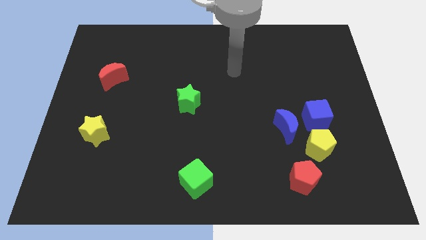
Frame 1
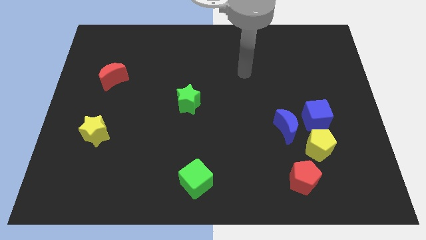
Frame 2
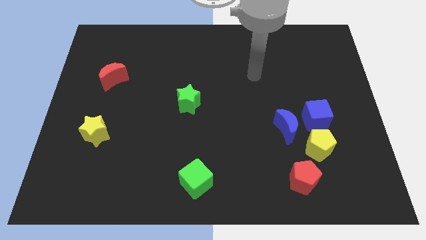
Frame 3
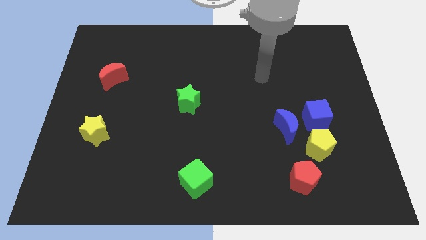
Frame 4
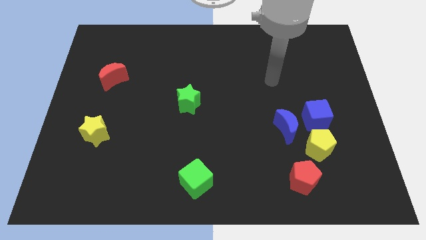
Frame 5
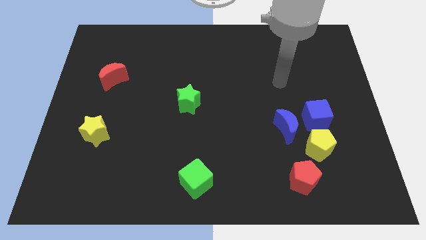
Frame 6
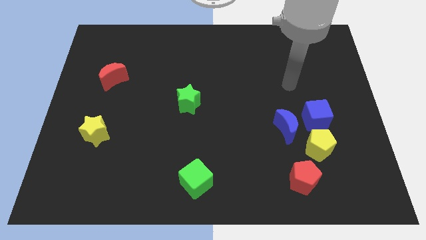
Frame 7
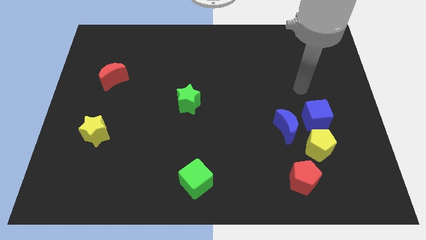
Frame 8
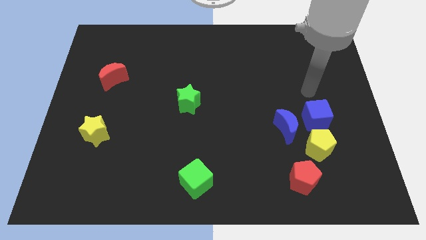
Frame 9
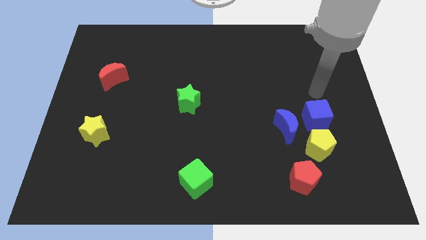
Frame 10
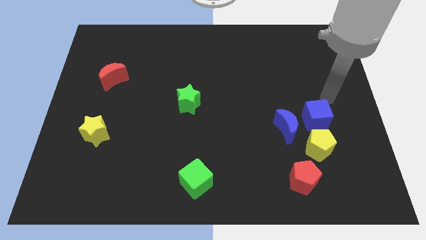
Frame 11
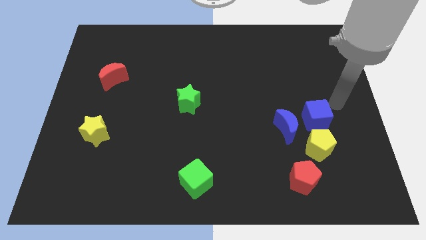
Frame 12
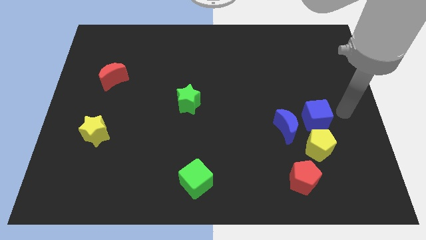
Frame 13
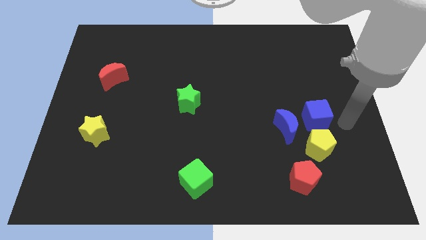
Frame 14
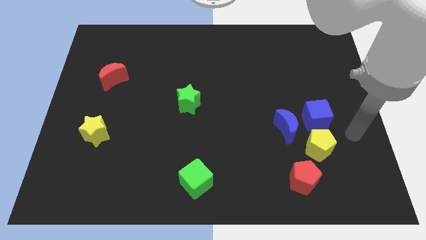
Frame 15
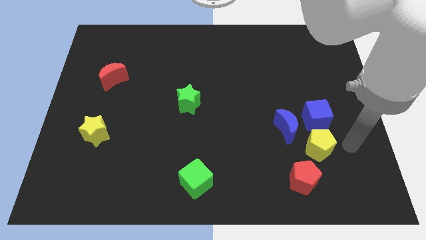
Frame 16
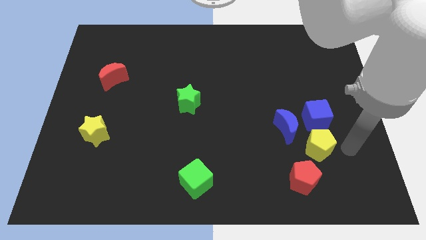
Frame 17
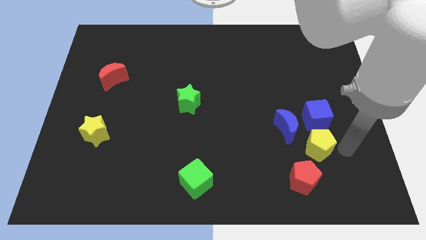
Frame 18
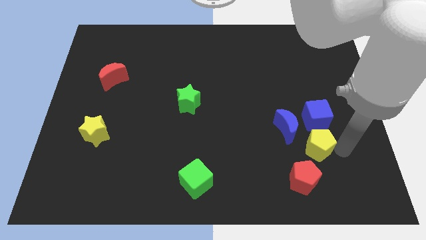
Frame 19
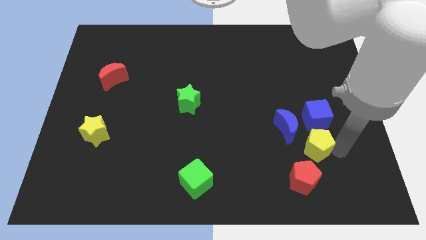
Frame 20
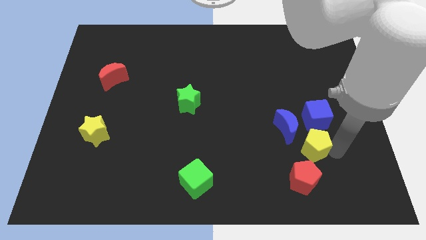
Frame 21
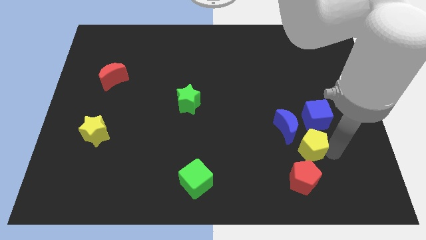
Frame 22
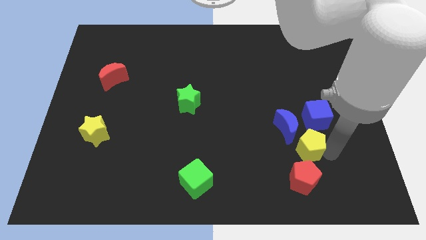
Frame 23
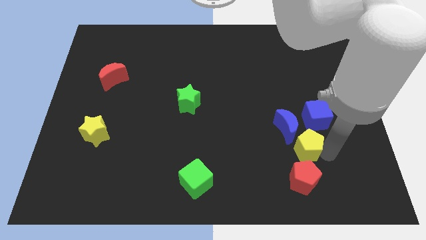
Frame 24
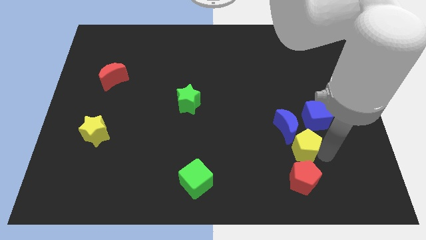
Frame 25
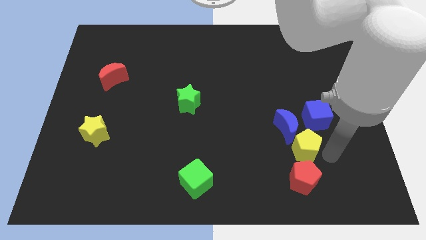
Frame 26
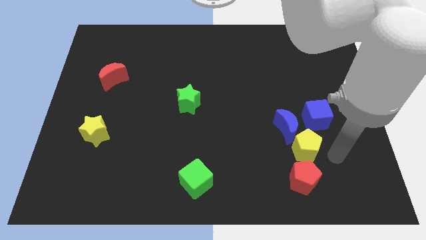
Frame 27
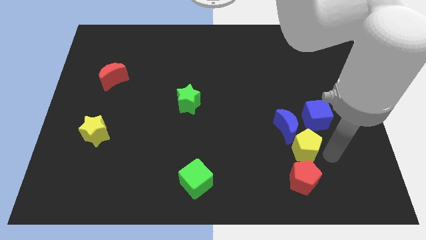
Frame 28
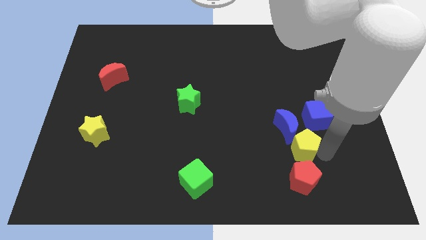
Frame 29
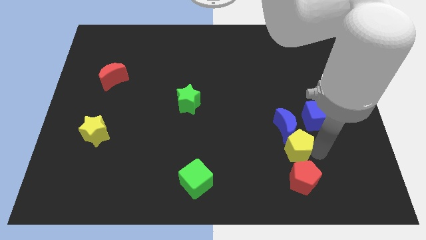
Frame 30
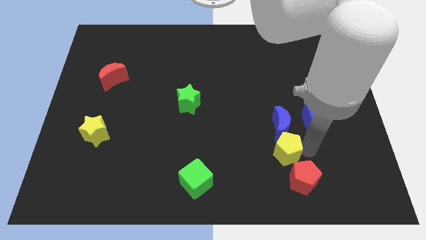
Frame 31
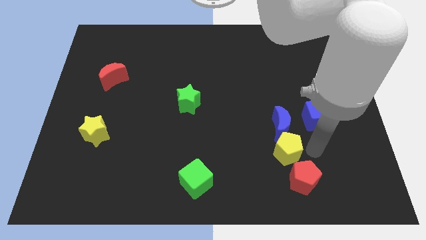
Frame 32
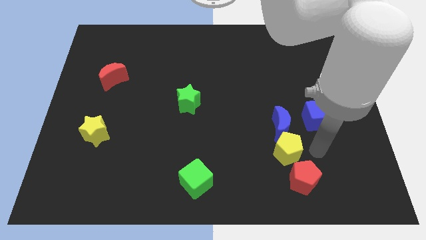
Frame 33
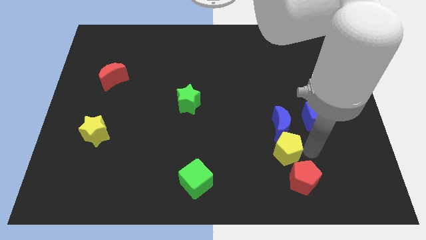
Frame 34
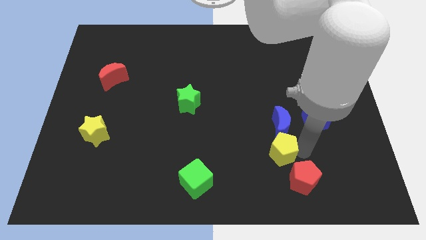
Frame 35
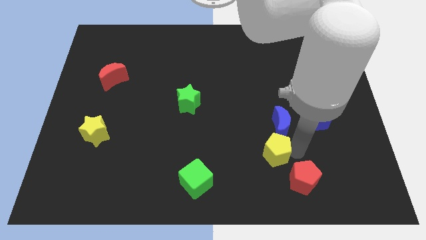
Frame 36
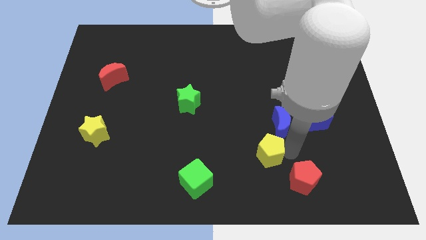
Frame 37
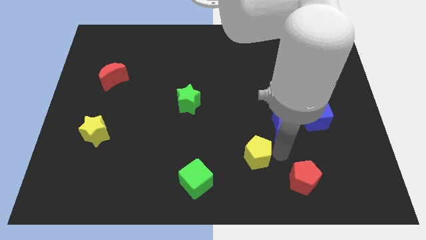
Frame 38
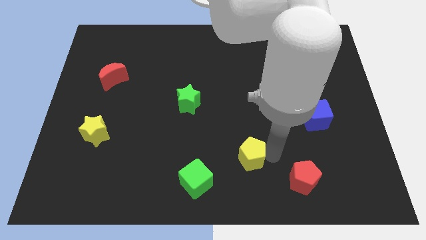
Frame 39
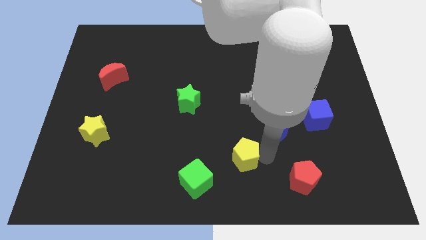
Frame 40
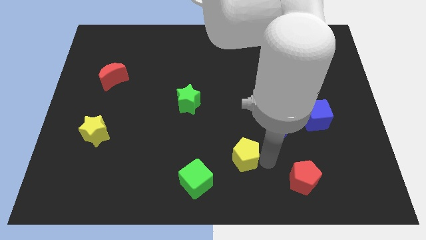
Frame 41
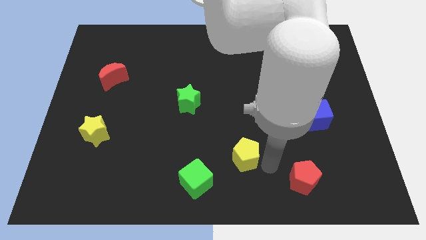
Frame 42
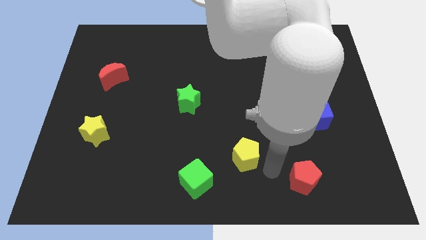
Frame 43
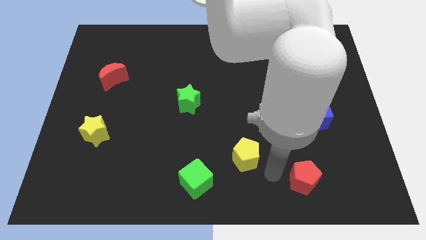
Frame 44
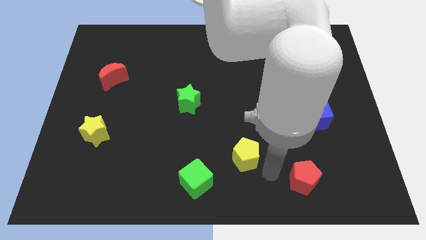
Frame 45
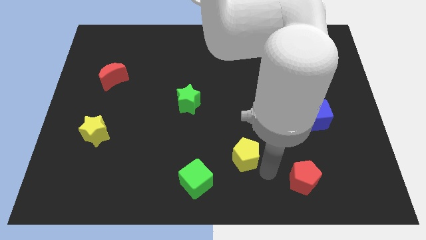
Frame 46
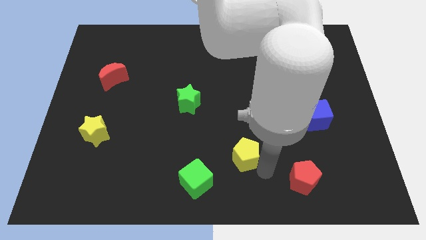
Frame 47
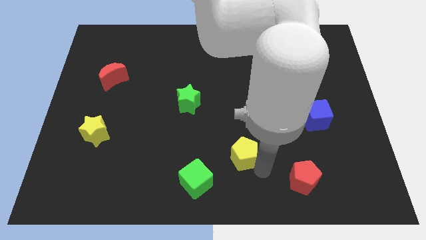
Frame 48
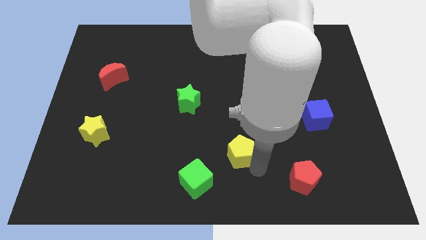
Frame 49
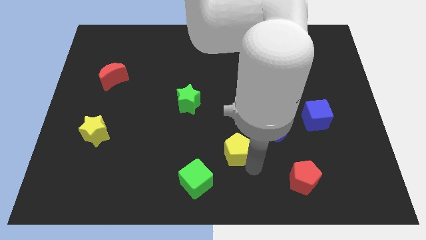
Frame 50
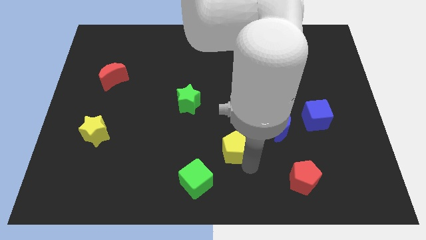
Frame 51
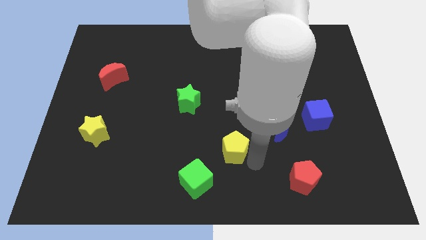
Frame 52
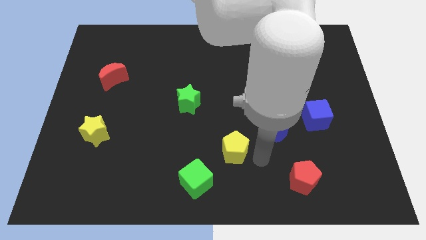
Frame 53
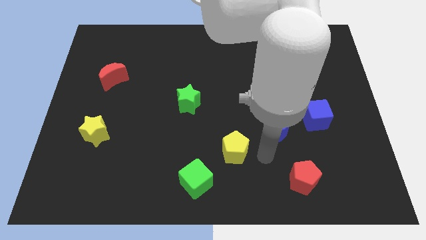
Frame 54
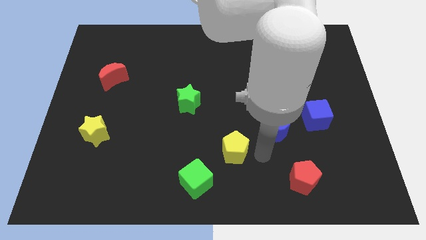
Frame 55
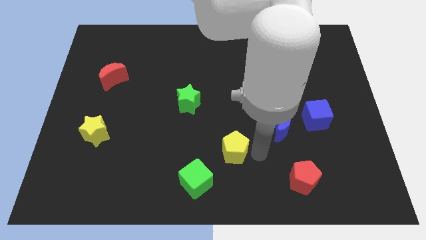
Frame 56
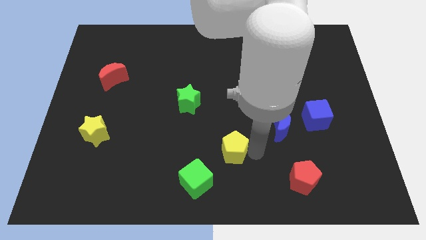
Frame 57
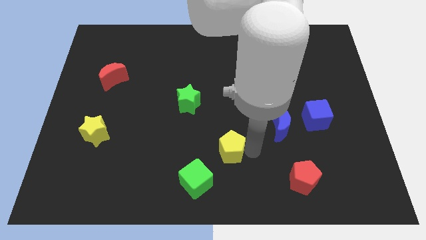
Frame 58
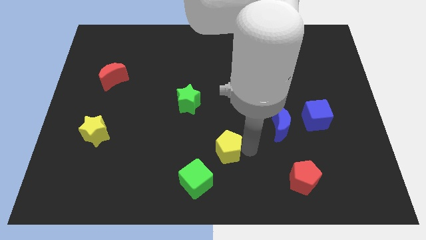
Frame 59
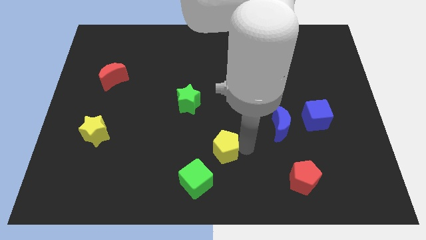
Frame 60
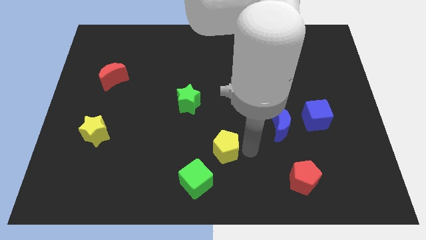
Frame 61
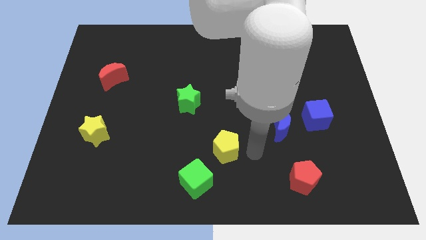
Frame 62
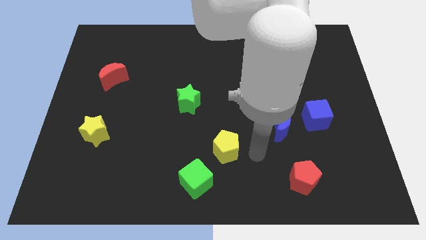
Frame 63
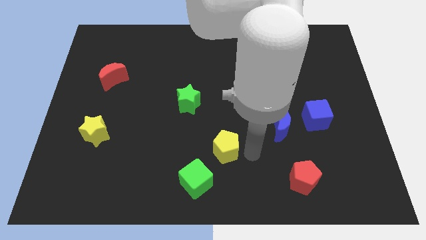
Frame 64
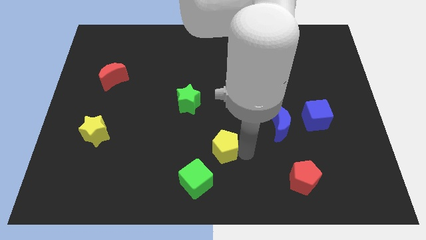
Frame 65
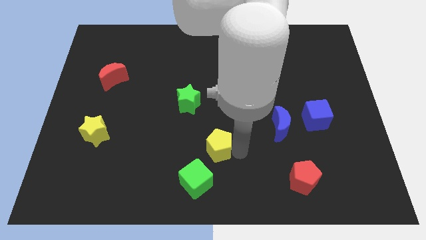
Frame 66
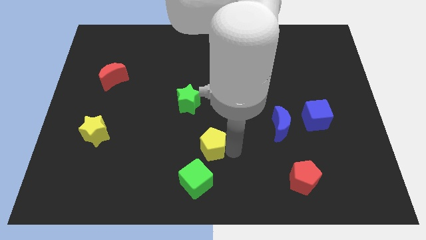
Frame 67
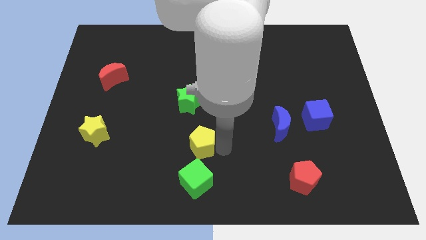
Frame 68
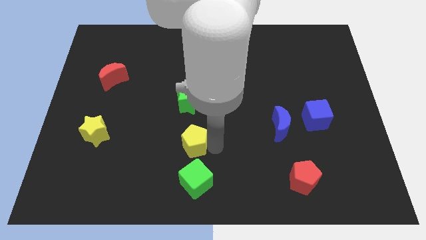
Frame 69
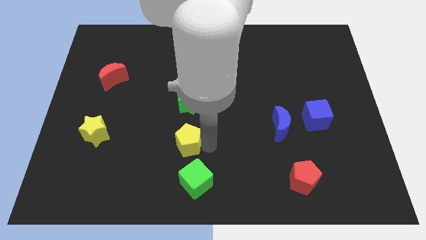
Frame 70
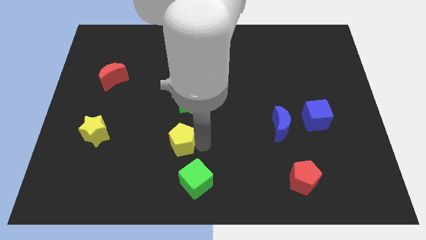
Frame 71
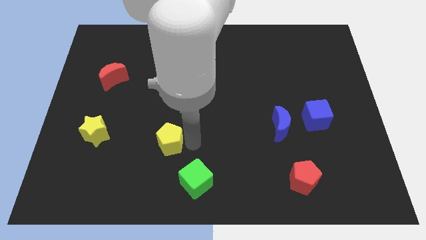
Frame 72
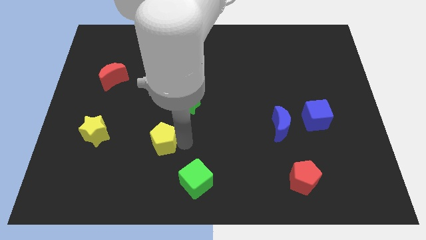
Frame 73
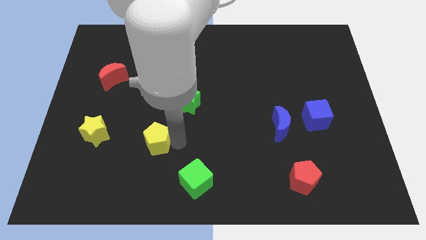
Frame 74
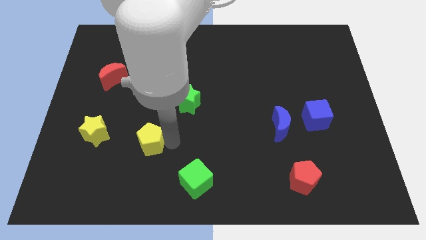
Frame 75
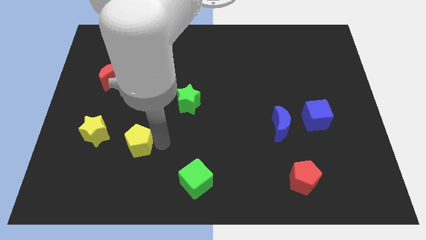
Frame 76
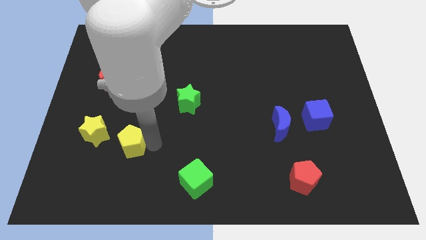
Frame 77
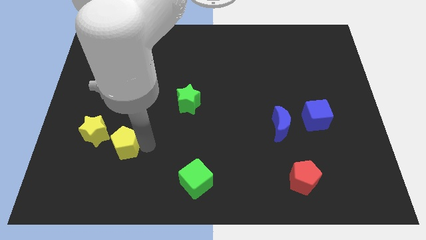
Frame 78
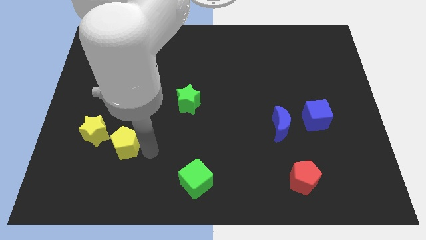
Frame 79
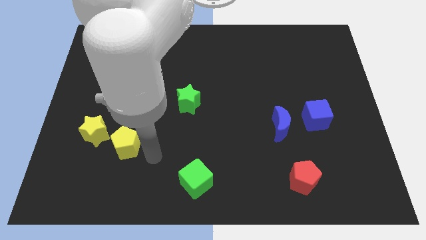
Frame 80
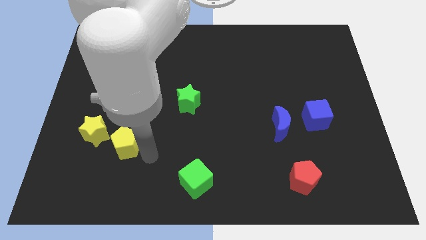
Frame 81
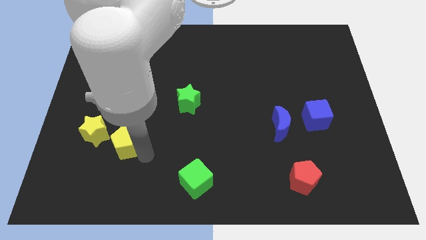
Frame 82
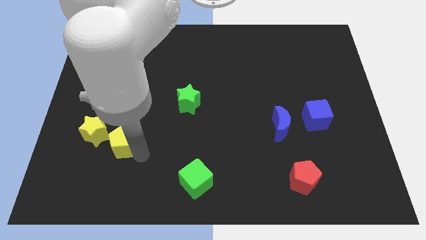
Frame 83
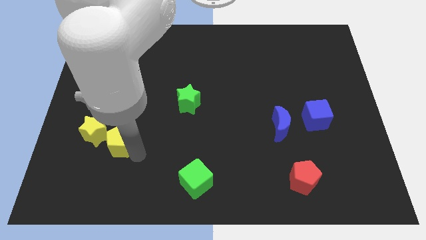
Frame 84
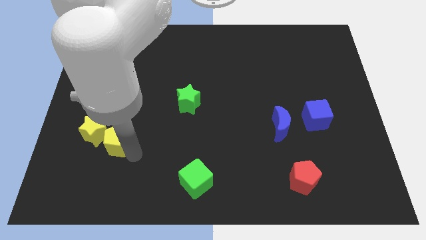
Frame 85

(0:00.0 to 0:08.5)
slide the yellow pentagon close to the yellow star
